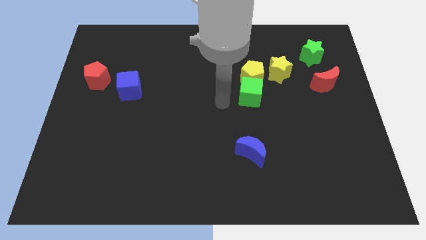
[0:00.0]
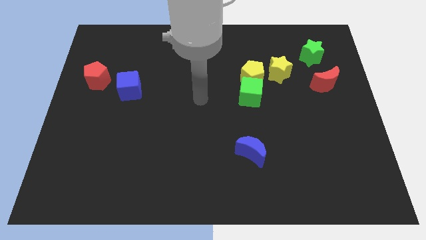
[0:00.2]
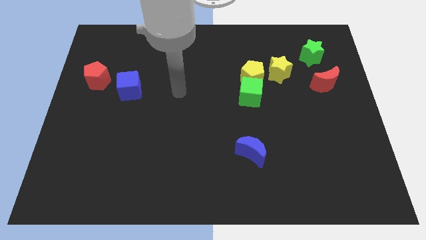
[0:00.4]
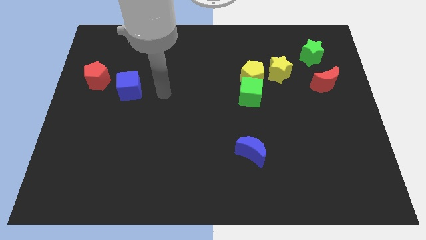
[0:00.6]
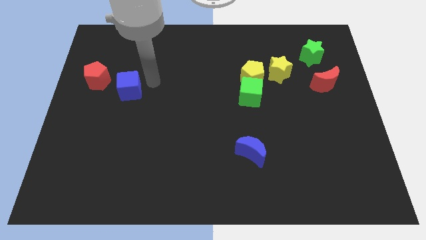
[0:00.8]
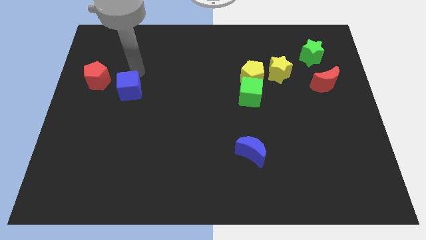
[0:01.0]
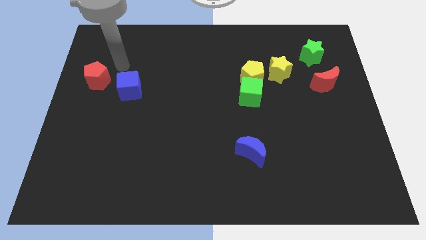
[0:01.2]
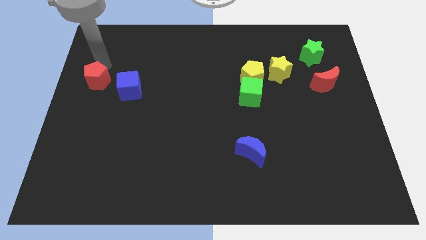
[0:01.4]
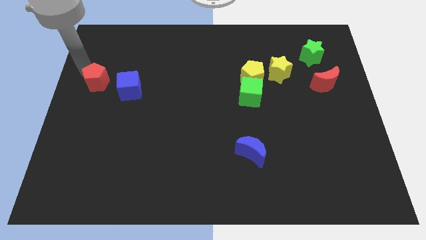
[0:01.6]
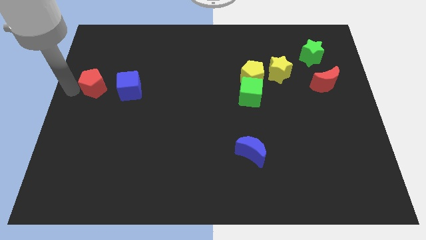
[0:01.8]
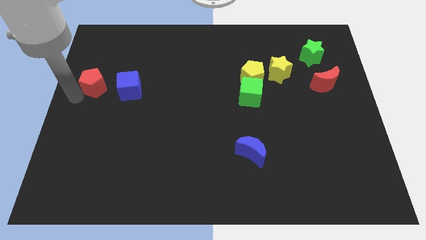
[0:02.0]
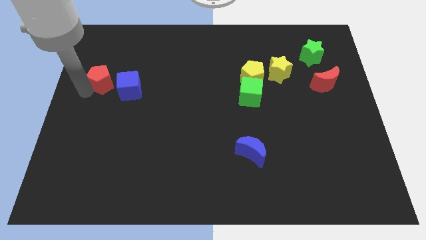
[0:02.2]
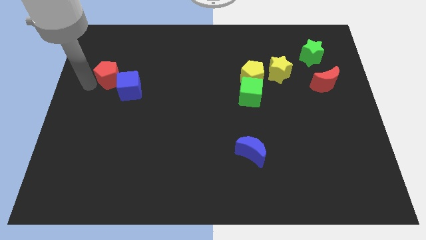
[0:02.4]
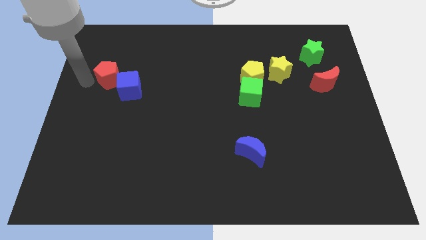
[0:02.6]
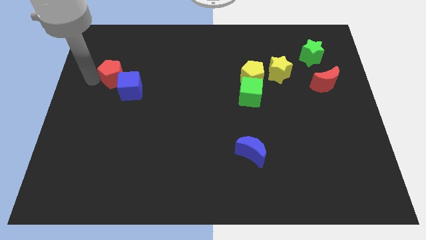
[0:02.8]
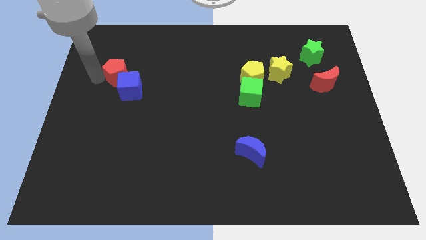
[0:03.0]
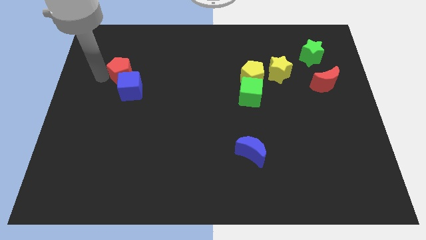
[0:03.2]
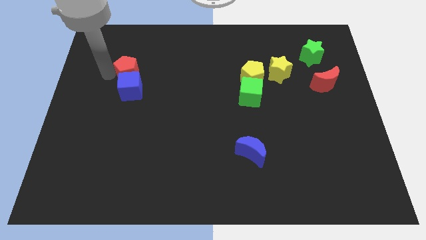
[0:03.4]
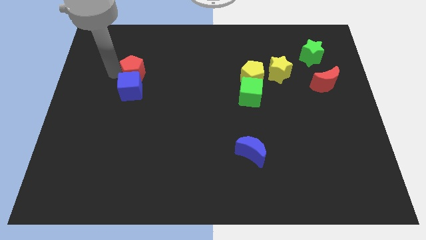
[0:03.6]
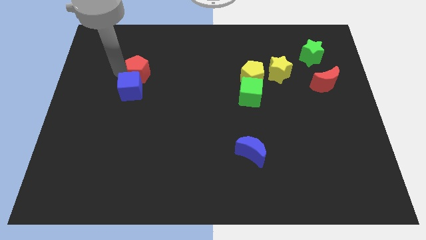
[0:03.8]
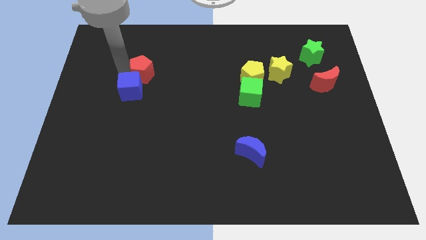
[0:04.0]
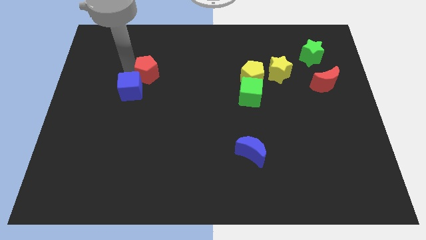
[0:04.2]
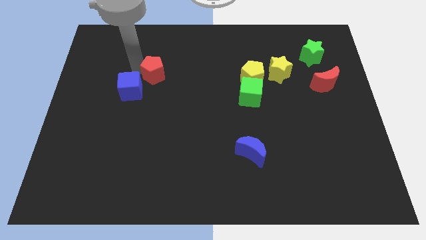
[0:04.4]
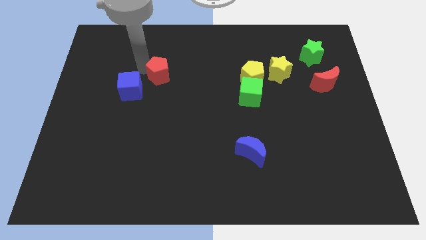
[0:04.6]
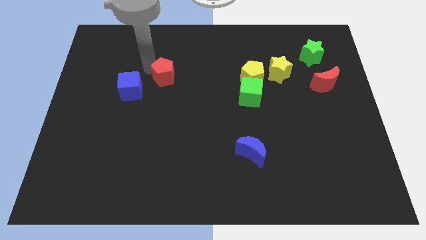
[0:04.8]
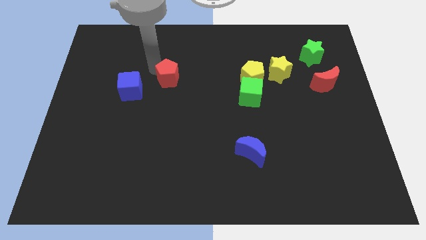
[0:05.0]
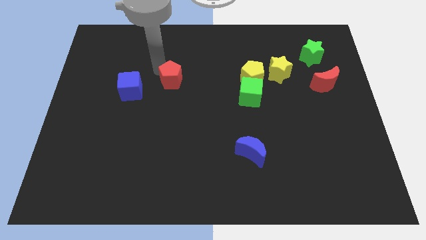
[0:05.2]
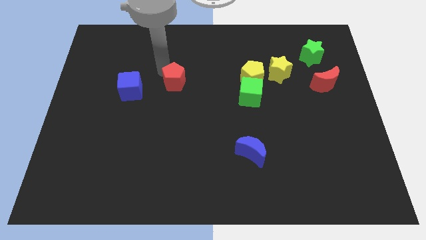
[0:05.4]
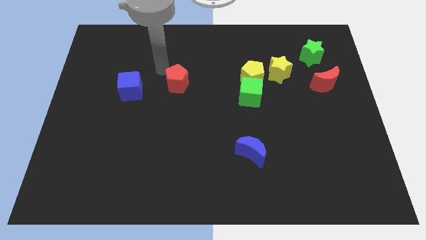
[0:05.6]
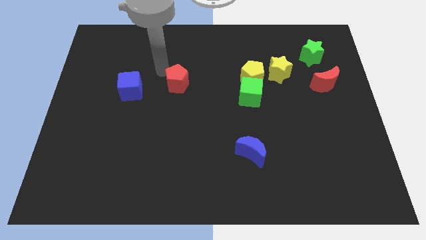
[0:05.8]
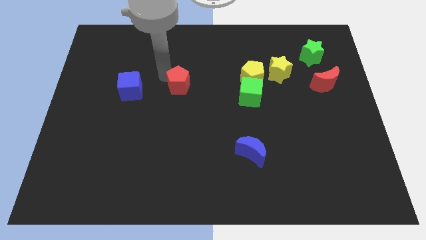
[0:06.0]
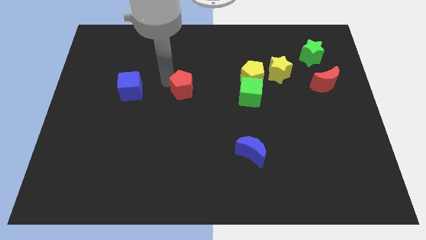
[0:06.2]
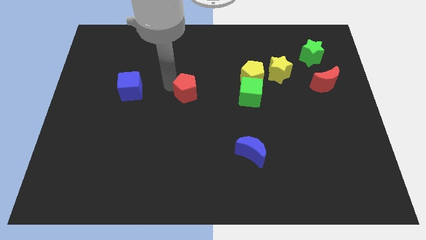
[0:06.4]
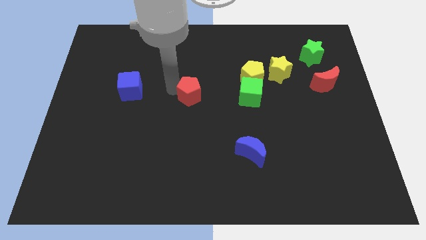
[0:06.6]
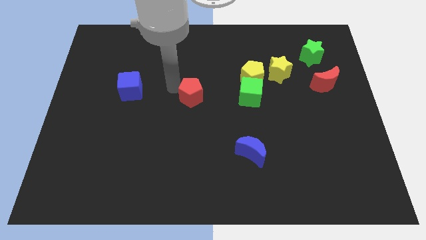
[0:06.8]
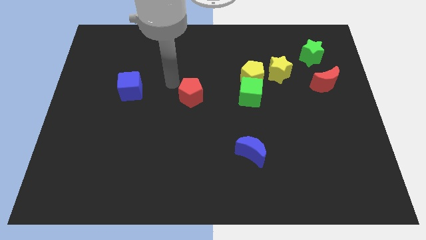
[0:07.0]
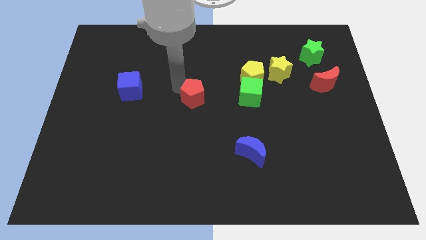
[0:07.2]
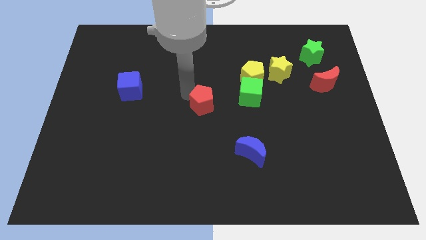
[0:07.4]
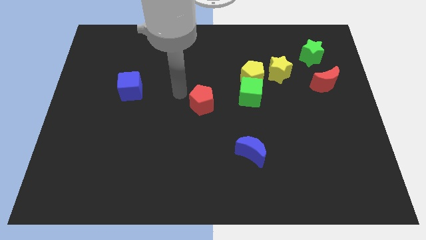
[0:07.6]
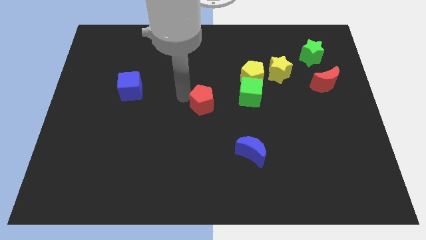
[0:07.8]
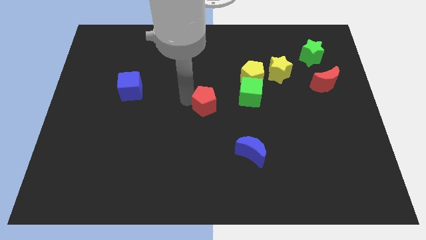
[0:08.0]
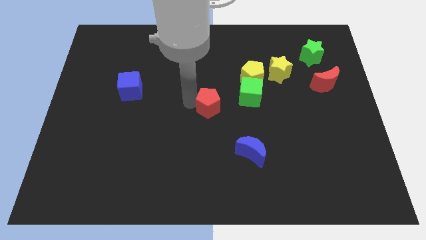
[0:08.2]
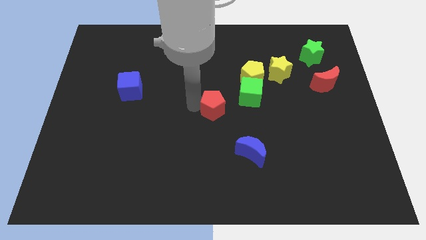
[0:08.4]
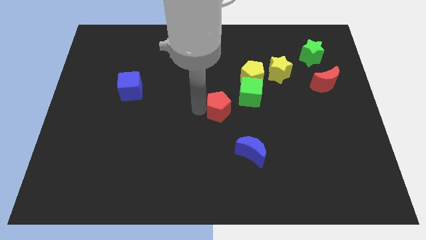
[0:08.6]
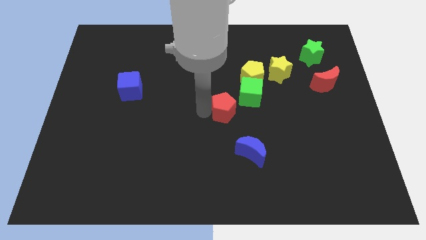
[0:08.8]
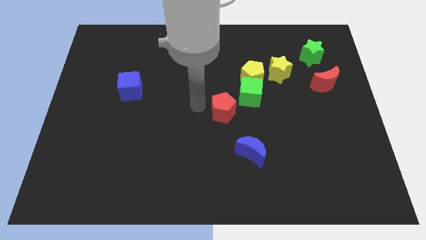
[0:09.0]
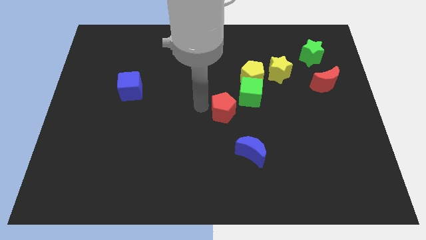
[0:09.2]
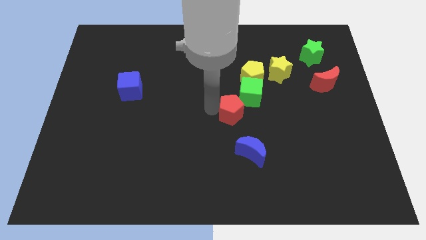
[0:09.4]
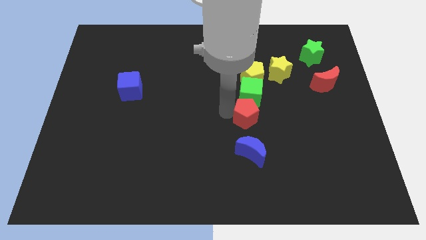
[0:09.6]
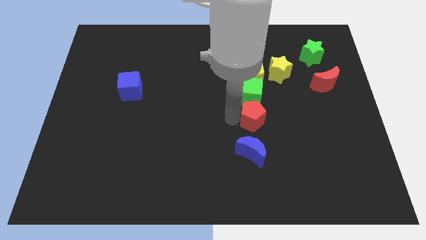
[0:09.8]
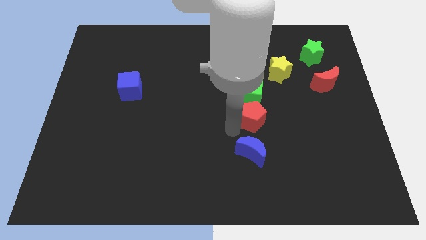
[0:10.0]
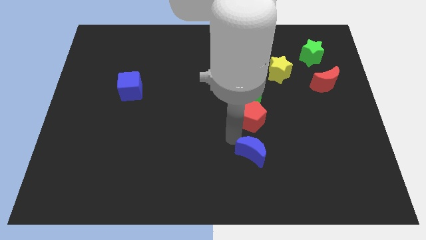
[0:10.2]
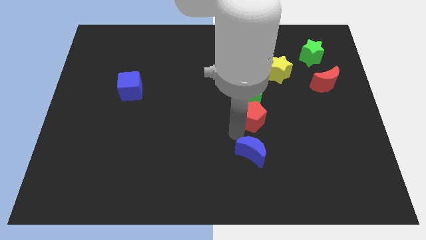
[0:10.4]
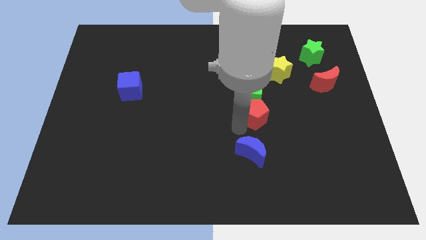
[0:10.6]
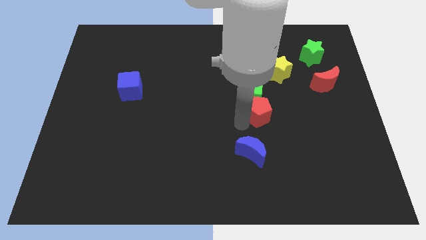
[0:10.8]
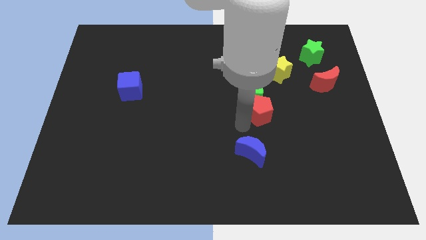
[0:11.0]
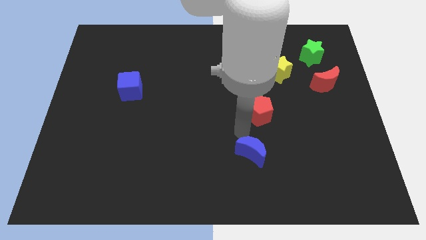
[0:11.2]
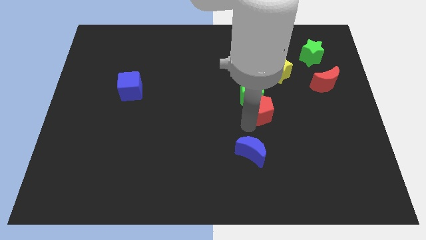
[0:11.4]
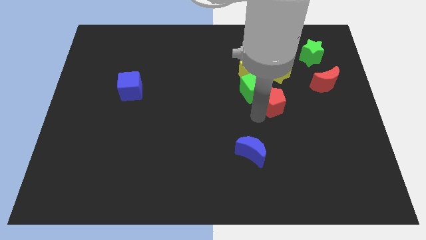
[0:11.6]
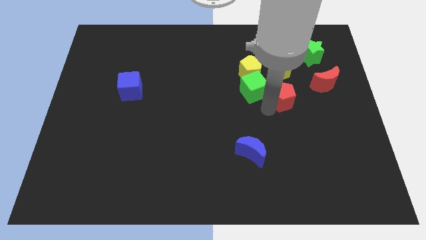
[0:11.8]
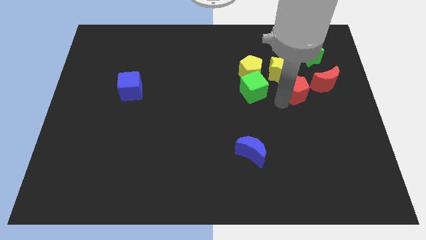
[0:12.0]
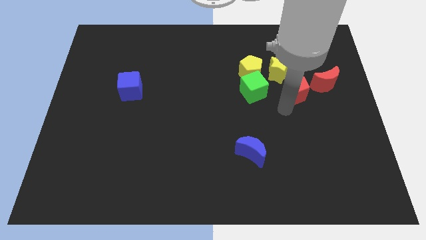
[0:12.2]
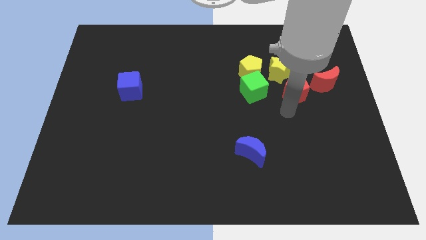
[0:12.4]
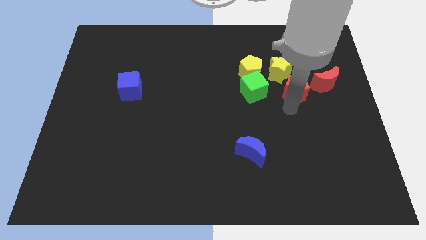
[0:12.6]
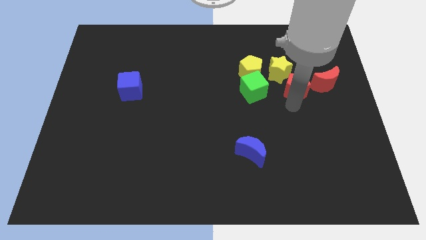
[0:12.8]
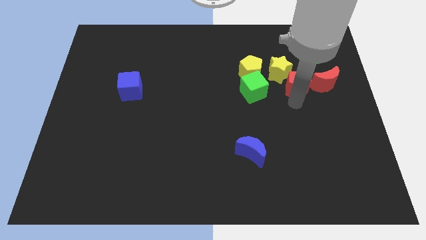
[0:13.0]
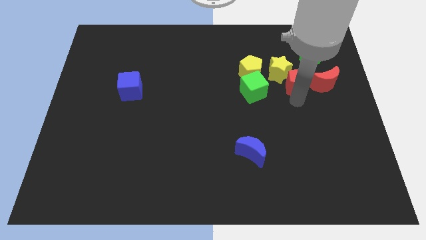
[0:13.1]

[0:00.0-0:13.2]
push the red pentagon right of the yellow star

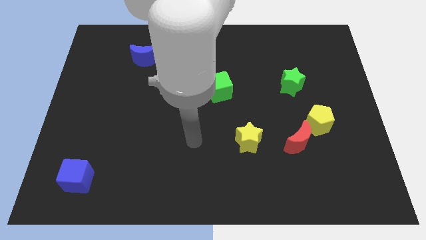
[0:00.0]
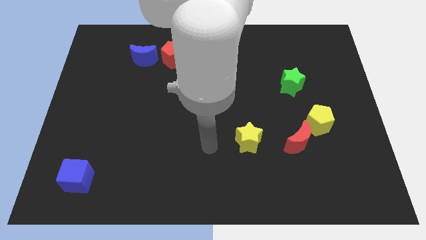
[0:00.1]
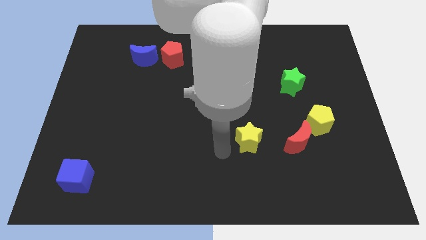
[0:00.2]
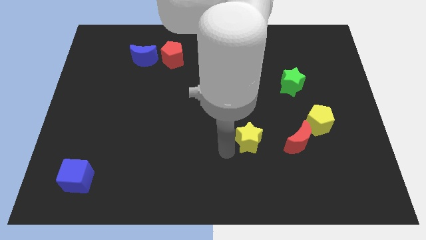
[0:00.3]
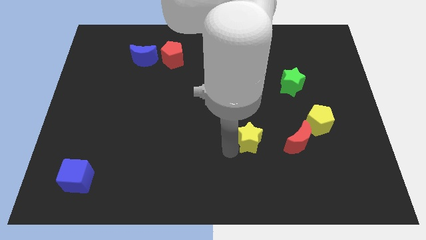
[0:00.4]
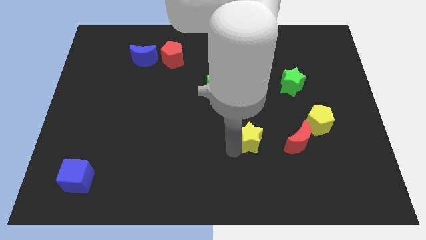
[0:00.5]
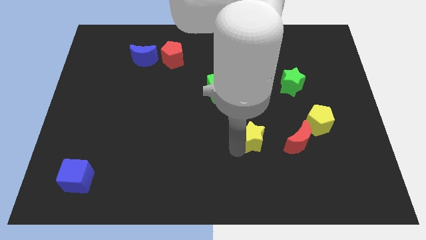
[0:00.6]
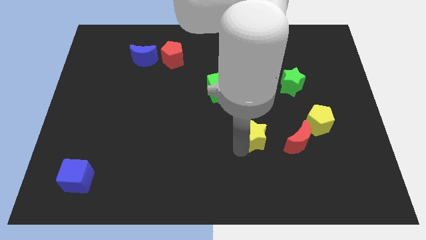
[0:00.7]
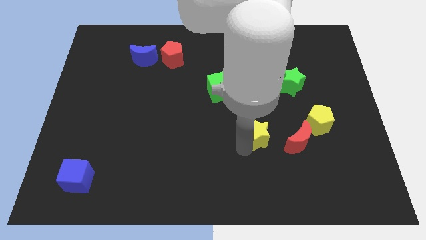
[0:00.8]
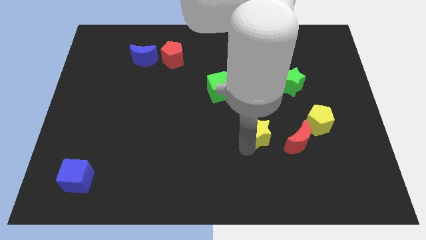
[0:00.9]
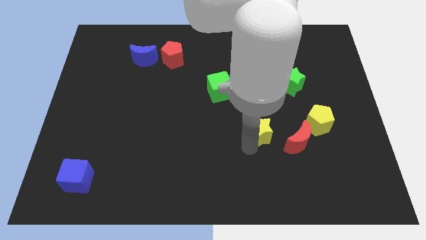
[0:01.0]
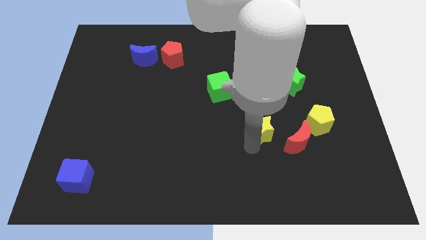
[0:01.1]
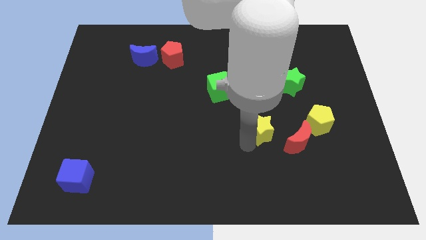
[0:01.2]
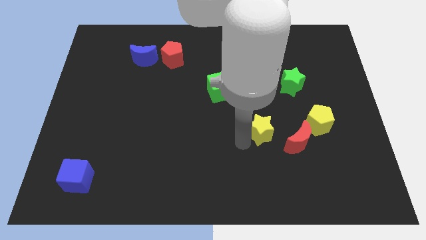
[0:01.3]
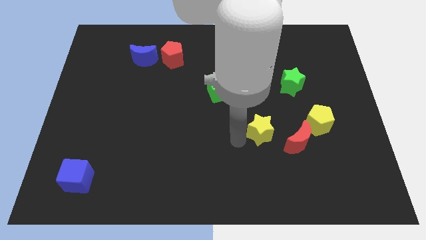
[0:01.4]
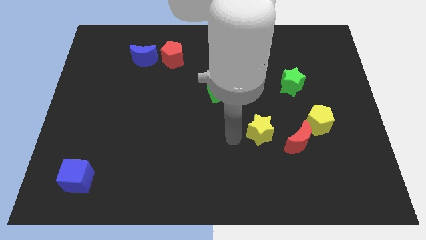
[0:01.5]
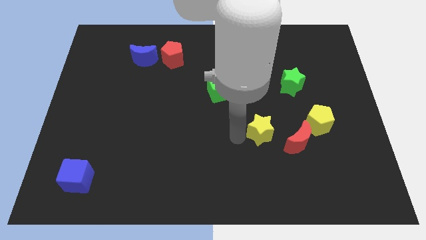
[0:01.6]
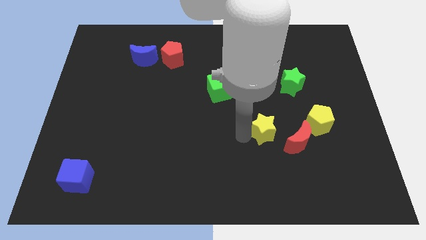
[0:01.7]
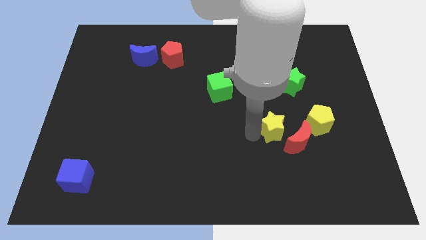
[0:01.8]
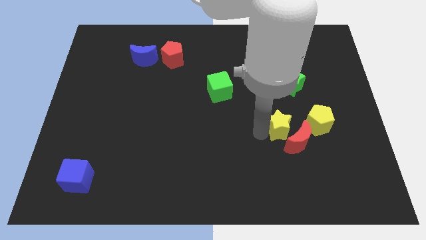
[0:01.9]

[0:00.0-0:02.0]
push the yellow star below the green star
